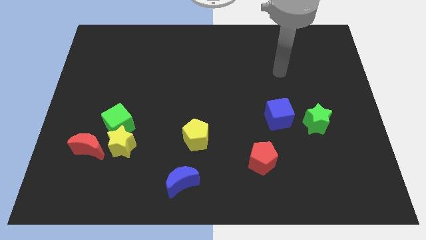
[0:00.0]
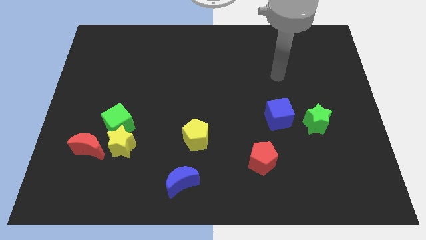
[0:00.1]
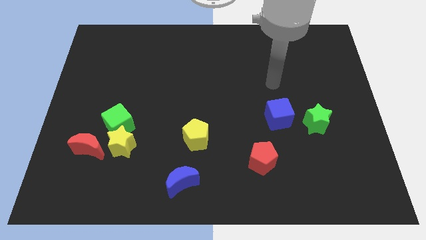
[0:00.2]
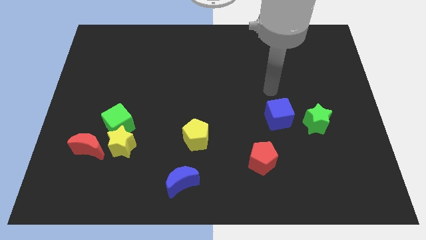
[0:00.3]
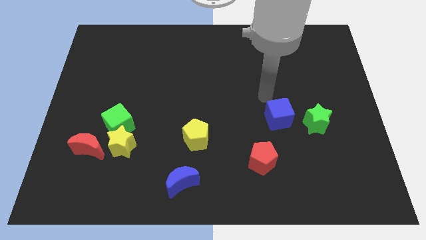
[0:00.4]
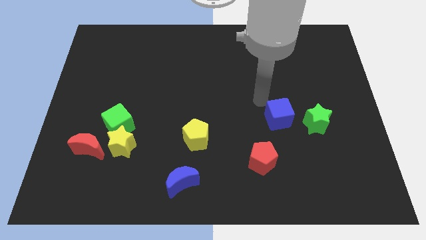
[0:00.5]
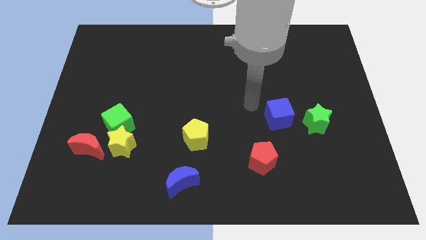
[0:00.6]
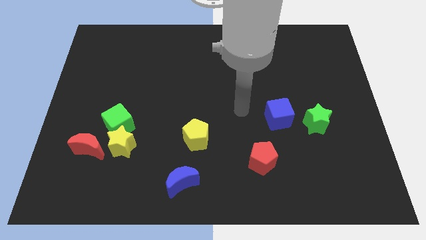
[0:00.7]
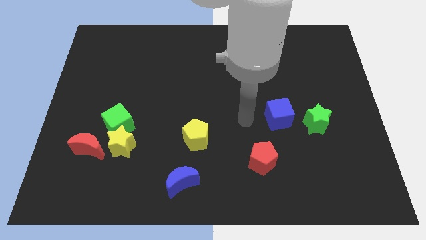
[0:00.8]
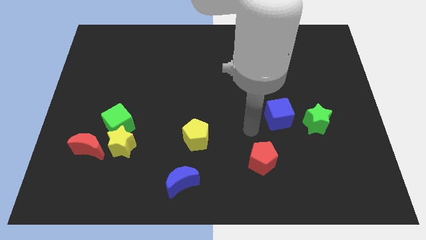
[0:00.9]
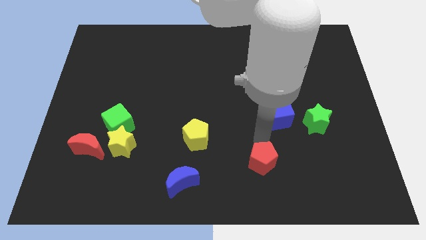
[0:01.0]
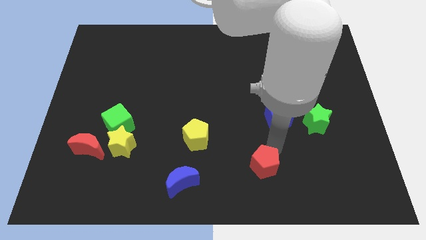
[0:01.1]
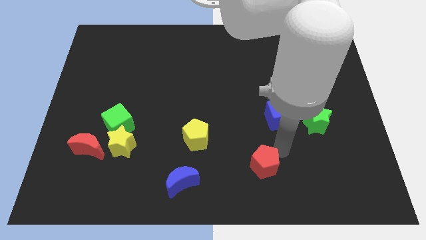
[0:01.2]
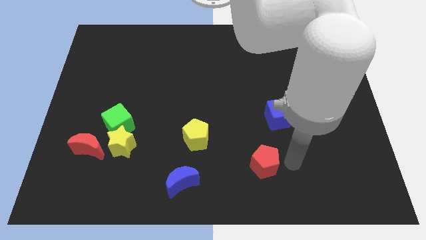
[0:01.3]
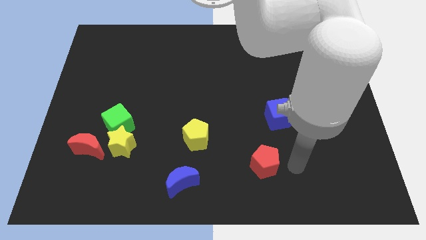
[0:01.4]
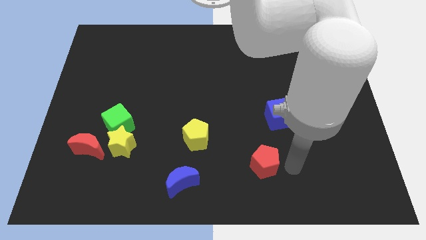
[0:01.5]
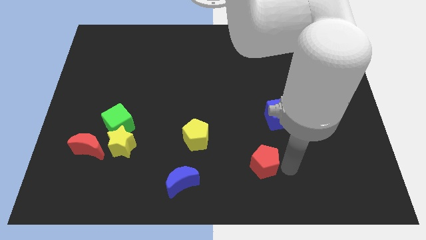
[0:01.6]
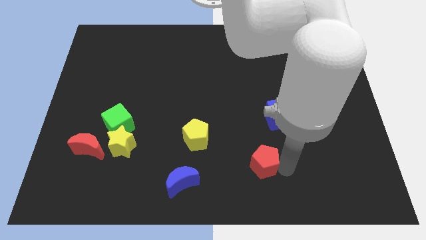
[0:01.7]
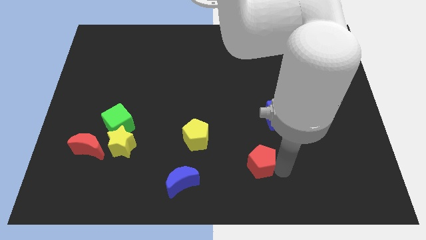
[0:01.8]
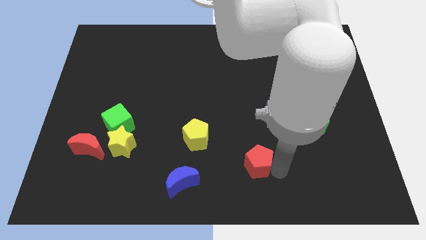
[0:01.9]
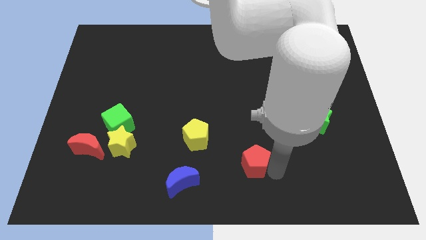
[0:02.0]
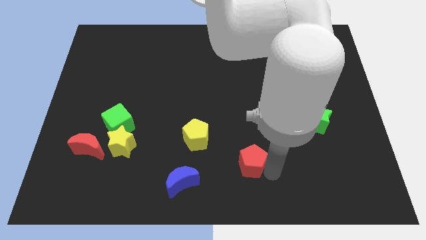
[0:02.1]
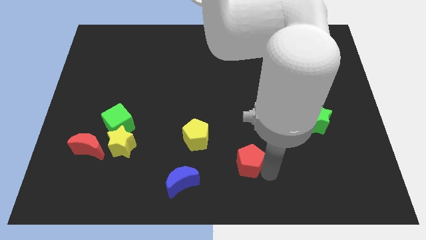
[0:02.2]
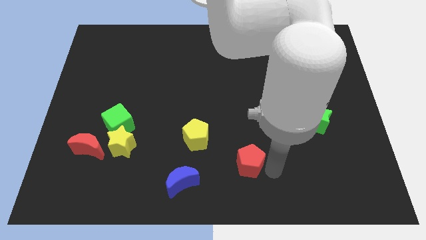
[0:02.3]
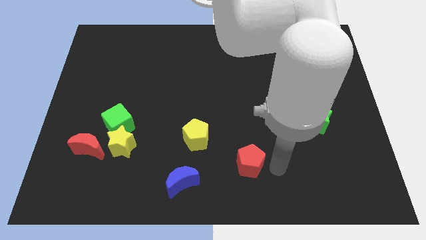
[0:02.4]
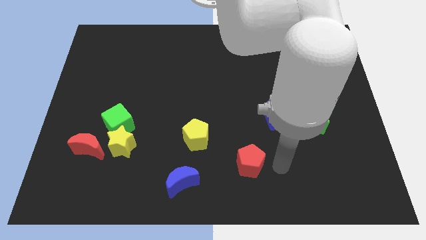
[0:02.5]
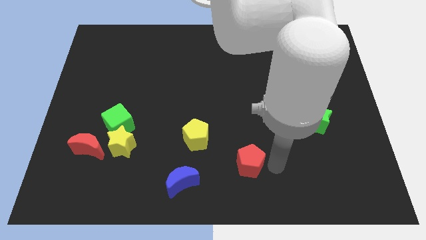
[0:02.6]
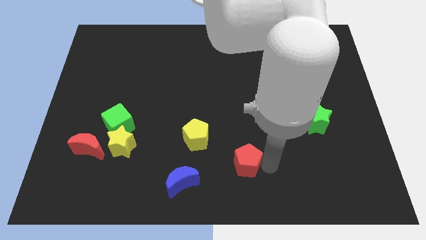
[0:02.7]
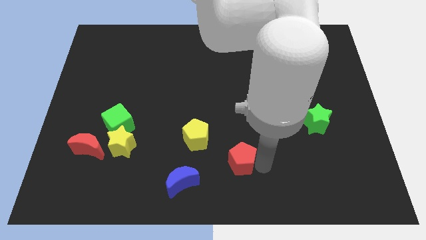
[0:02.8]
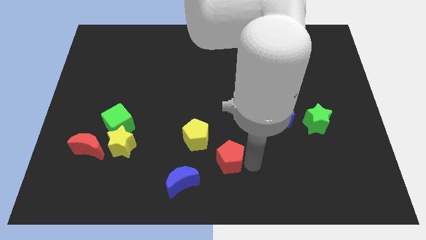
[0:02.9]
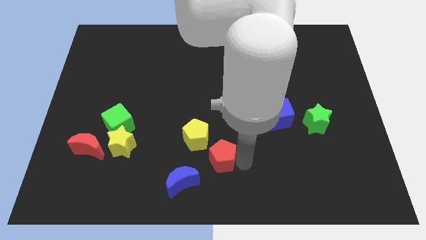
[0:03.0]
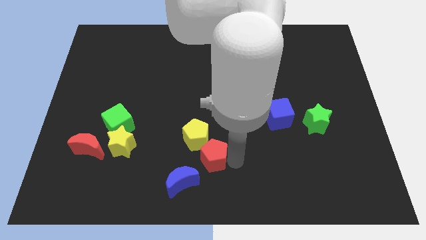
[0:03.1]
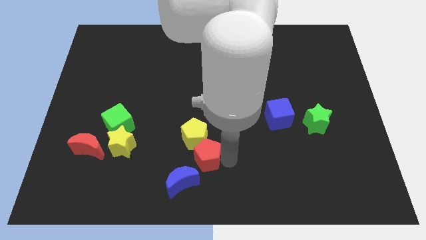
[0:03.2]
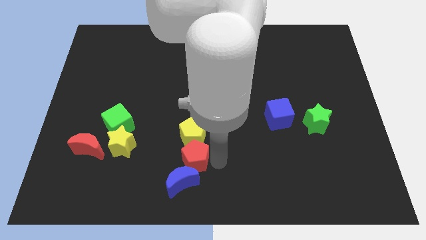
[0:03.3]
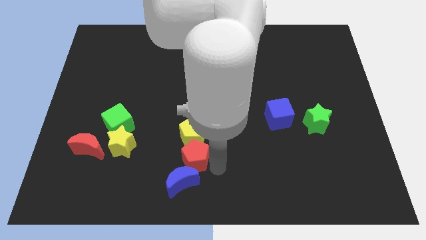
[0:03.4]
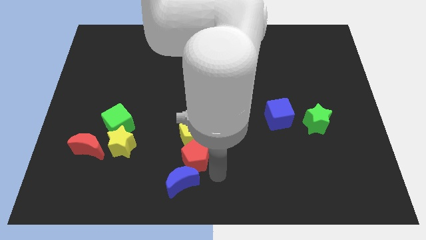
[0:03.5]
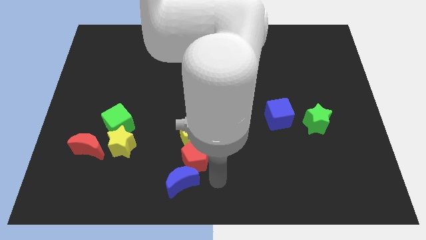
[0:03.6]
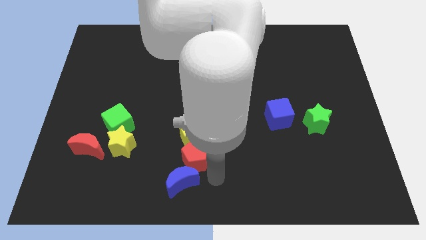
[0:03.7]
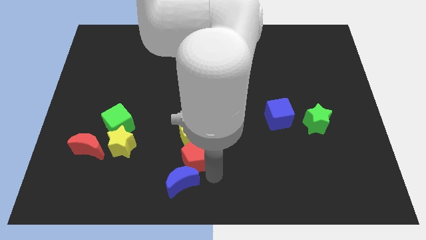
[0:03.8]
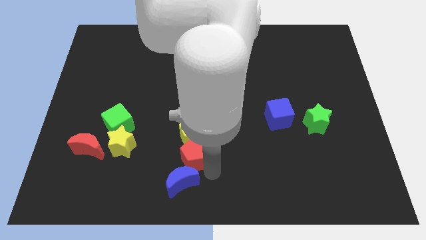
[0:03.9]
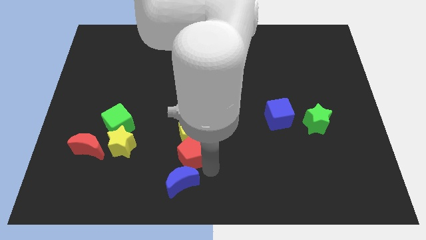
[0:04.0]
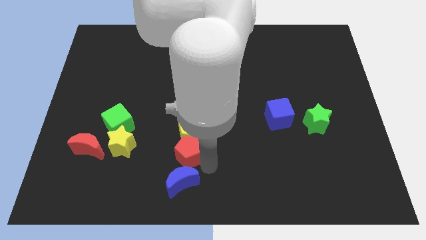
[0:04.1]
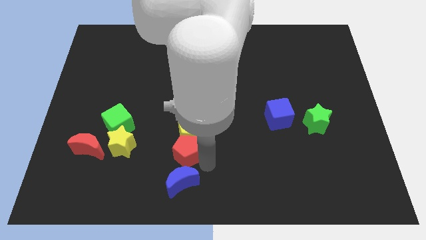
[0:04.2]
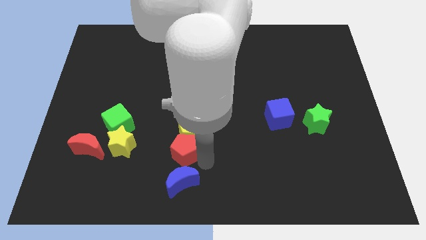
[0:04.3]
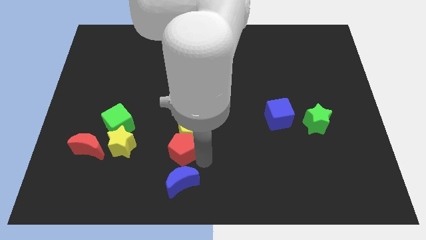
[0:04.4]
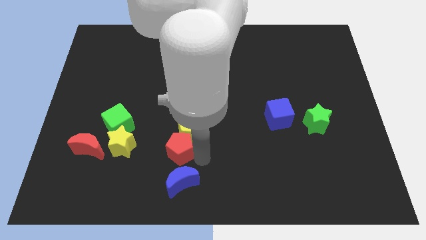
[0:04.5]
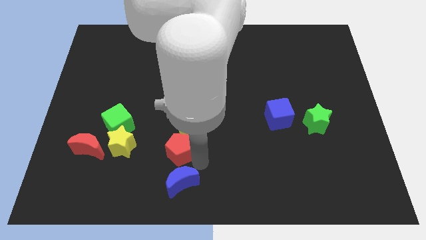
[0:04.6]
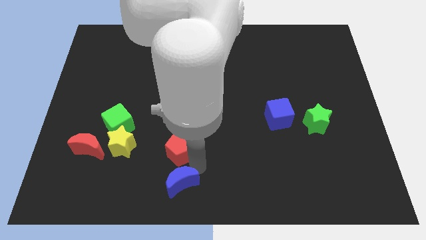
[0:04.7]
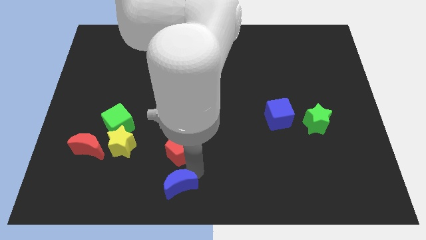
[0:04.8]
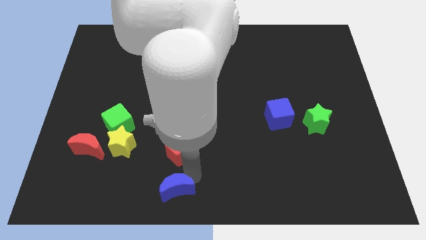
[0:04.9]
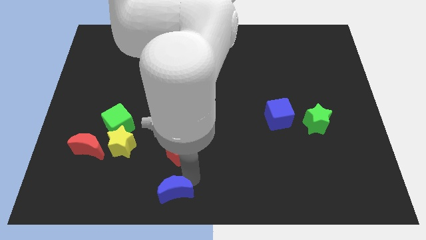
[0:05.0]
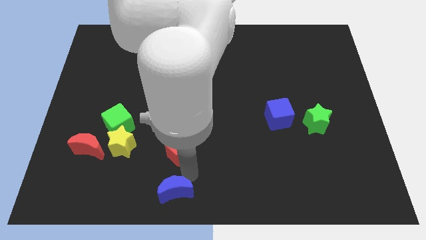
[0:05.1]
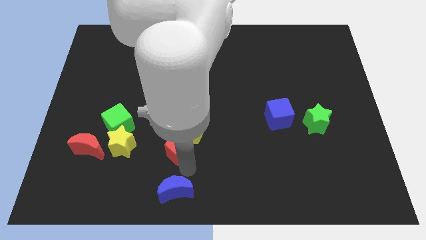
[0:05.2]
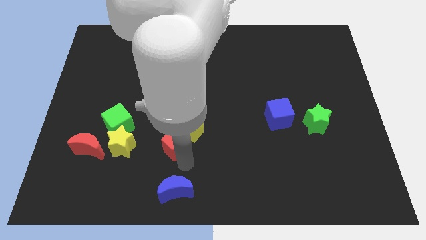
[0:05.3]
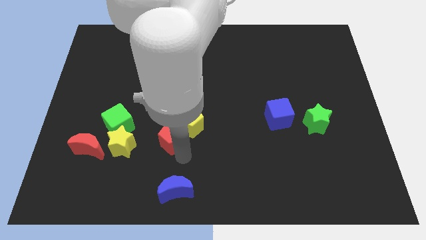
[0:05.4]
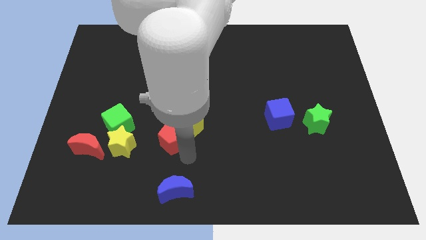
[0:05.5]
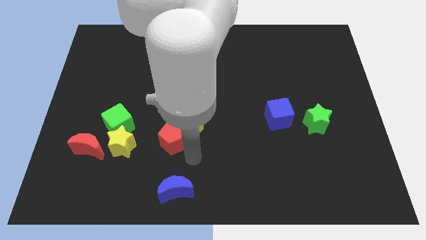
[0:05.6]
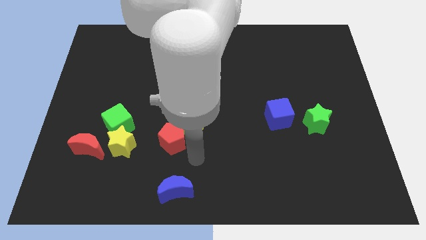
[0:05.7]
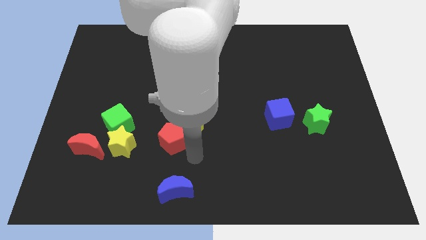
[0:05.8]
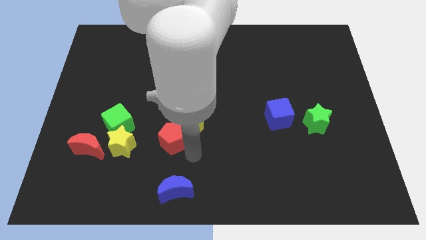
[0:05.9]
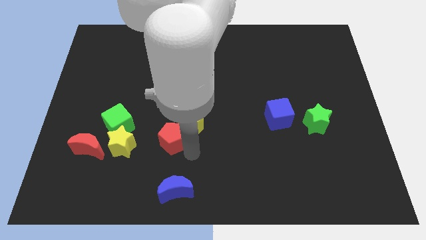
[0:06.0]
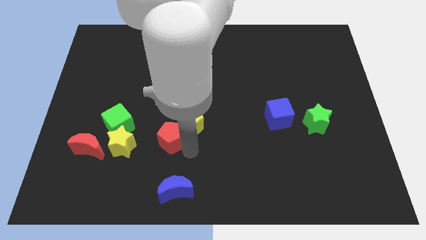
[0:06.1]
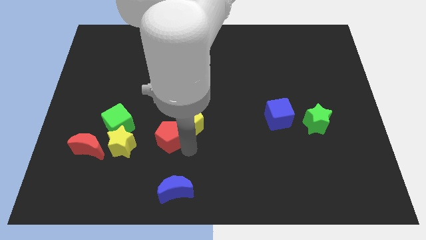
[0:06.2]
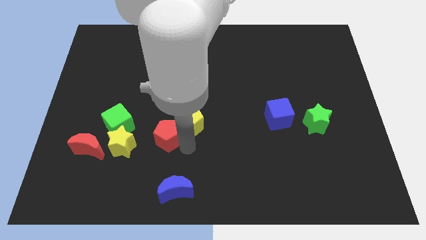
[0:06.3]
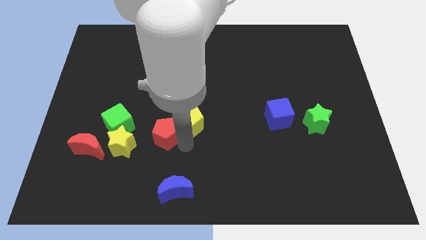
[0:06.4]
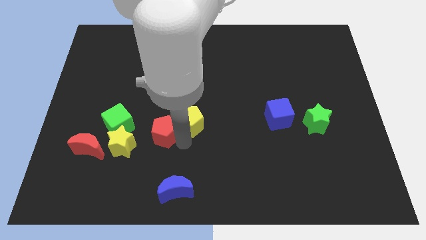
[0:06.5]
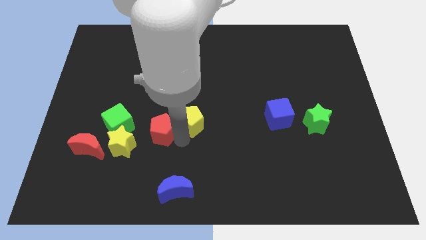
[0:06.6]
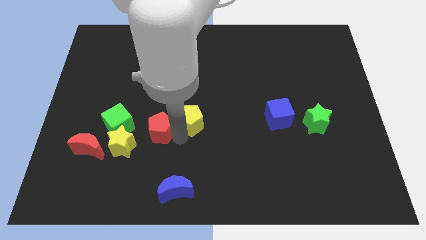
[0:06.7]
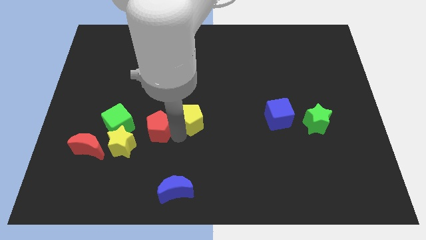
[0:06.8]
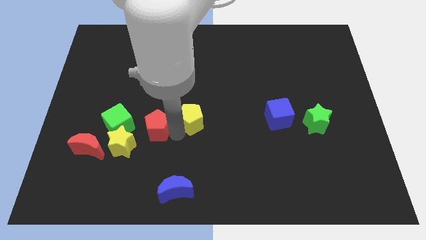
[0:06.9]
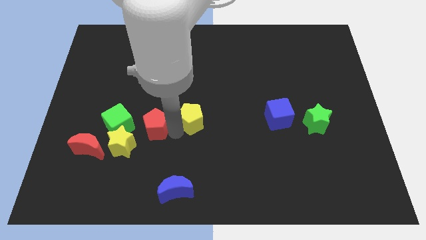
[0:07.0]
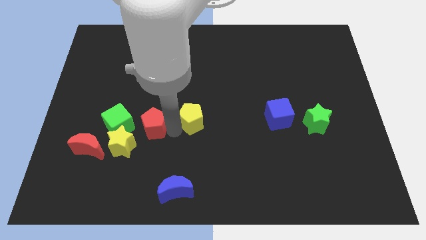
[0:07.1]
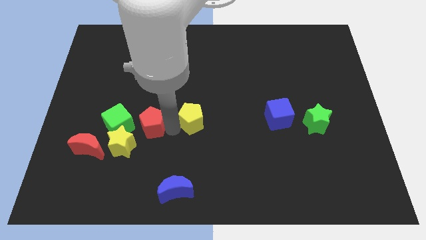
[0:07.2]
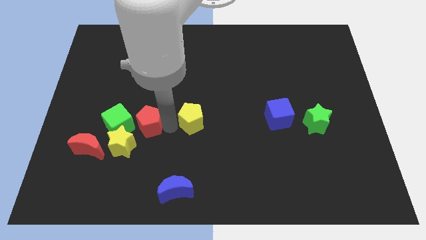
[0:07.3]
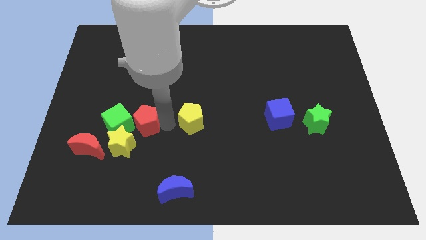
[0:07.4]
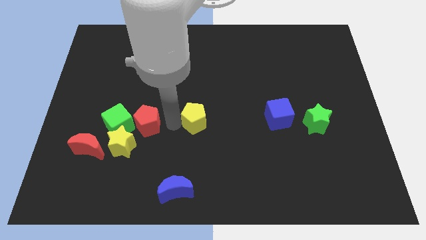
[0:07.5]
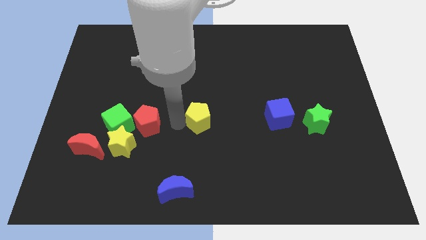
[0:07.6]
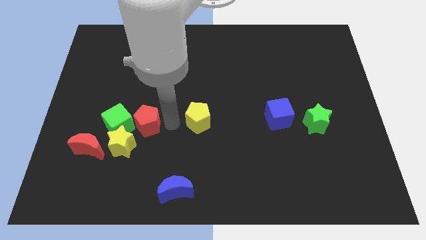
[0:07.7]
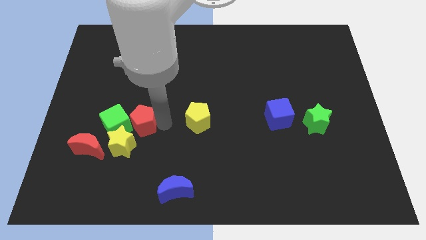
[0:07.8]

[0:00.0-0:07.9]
push the red pentagon next to the green cube
